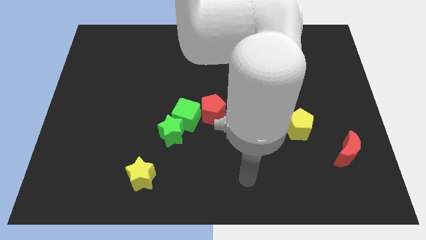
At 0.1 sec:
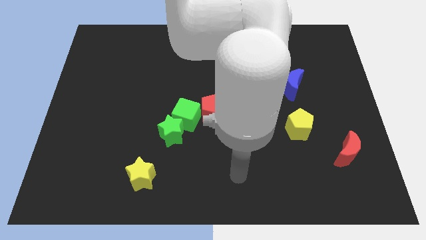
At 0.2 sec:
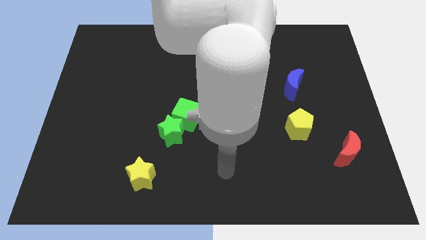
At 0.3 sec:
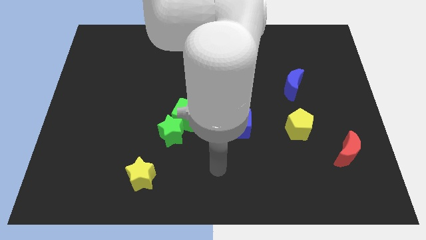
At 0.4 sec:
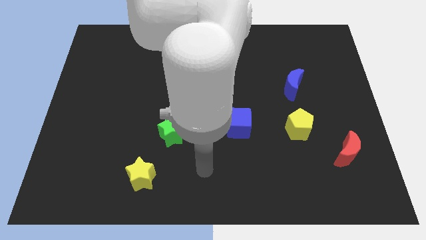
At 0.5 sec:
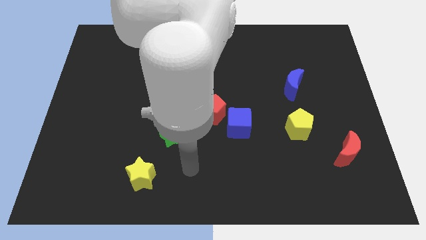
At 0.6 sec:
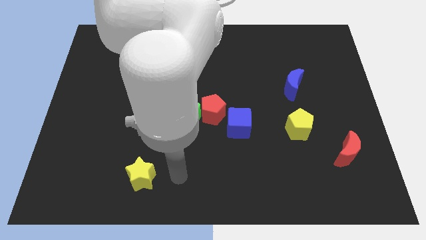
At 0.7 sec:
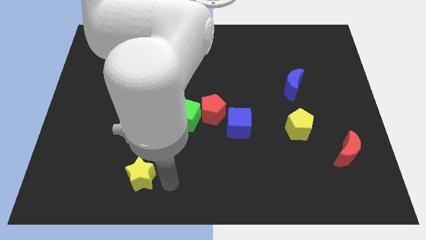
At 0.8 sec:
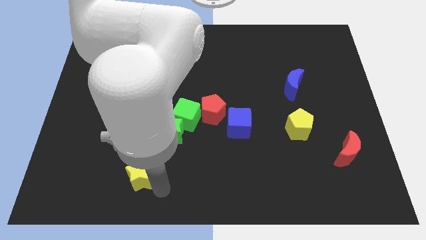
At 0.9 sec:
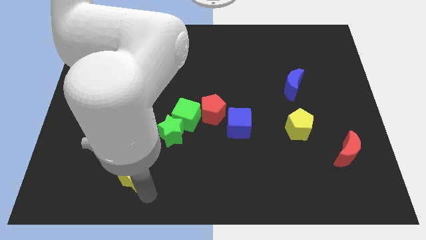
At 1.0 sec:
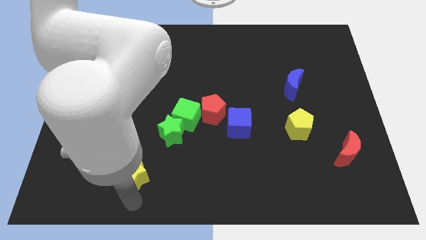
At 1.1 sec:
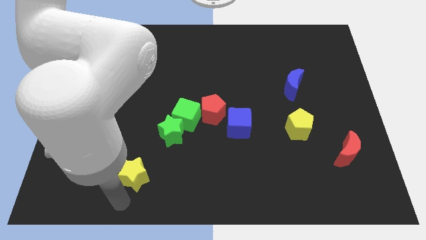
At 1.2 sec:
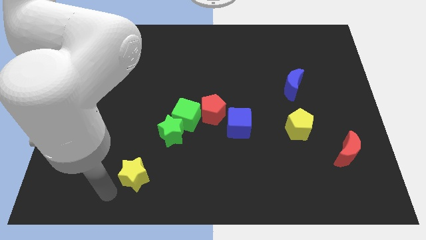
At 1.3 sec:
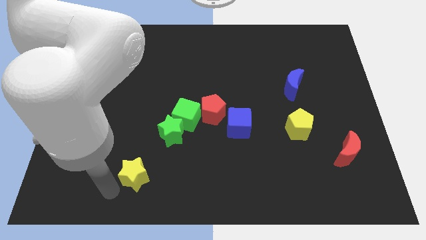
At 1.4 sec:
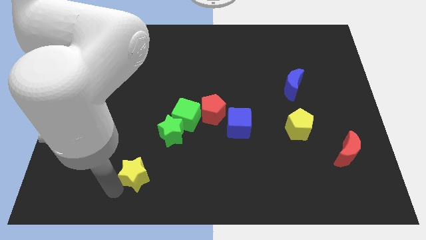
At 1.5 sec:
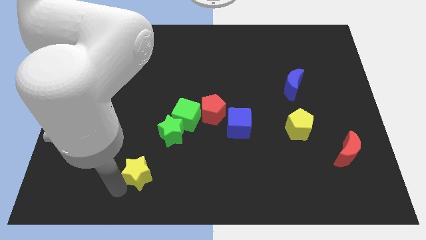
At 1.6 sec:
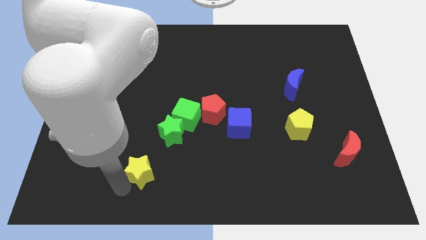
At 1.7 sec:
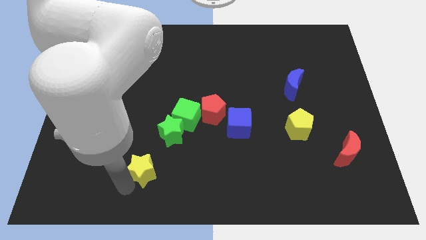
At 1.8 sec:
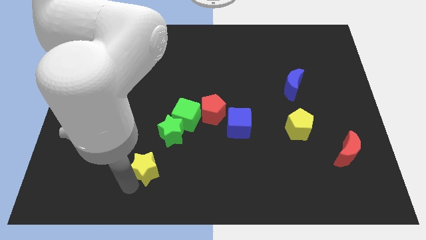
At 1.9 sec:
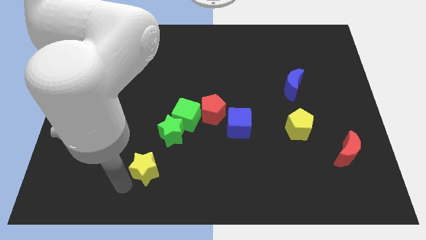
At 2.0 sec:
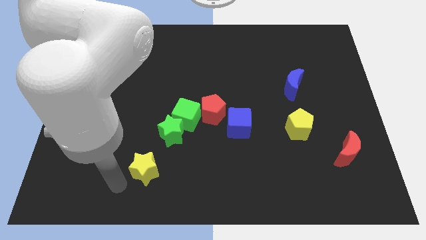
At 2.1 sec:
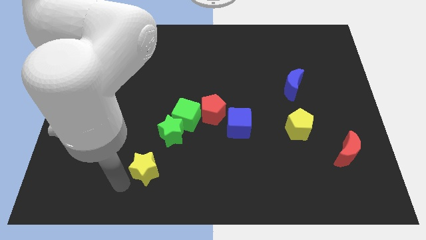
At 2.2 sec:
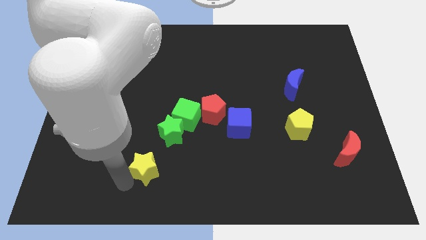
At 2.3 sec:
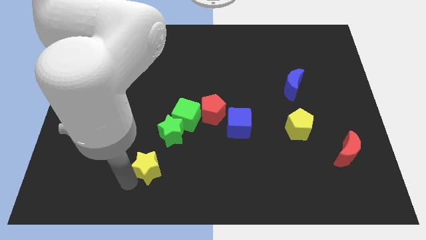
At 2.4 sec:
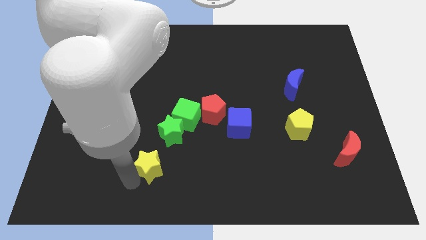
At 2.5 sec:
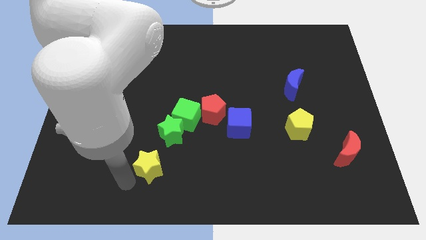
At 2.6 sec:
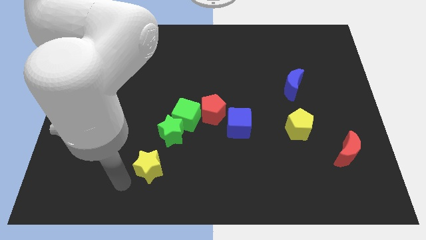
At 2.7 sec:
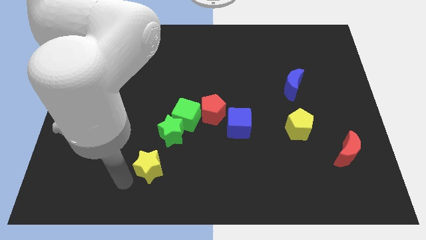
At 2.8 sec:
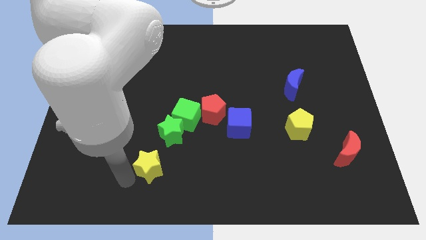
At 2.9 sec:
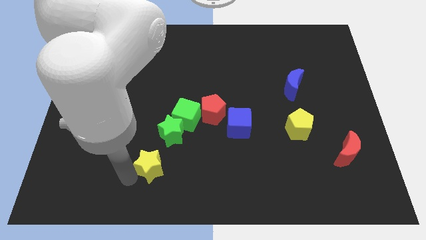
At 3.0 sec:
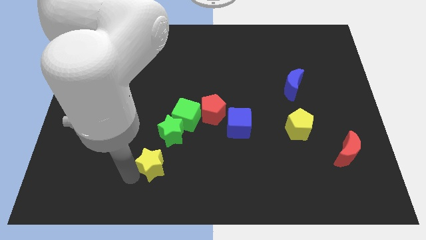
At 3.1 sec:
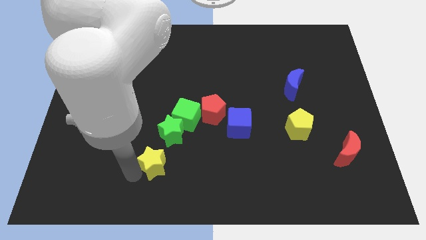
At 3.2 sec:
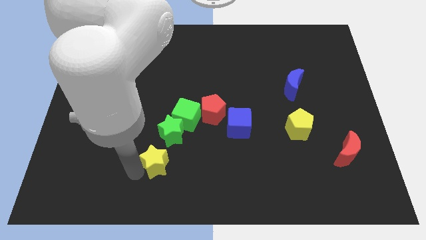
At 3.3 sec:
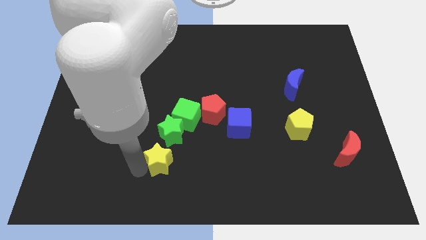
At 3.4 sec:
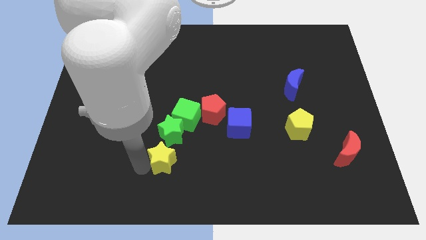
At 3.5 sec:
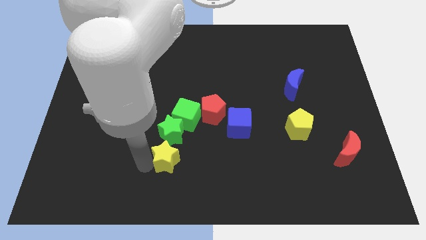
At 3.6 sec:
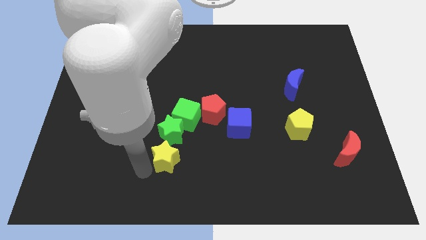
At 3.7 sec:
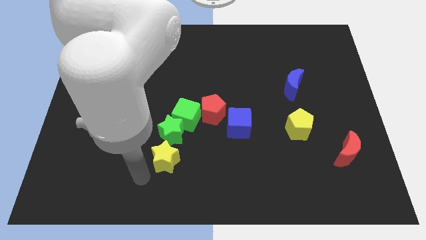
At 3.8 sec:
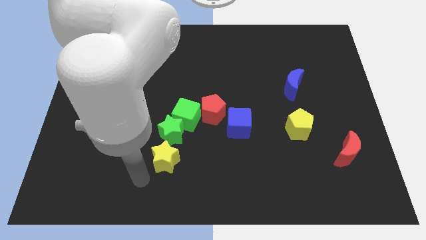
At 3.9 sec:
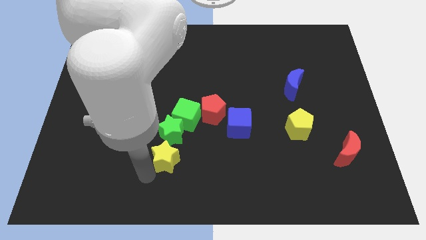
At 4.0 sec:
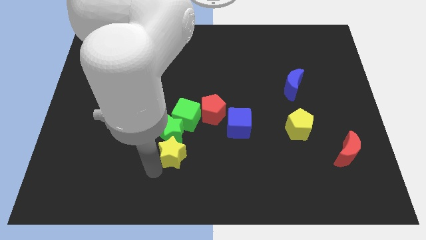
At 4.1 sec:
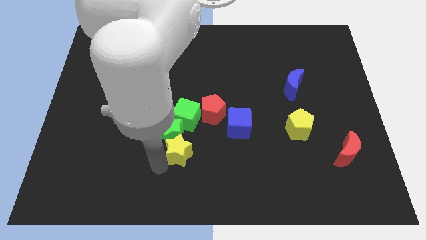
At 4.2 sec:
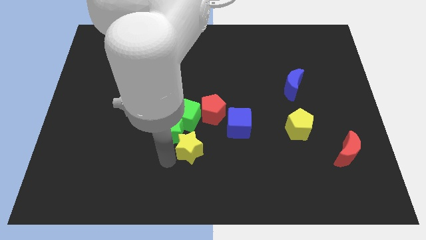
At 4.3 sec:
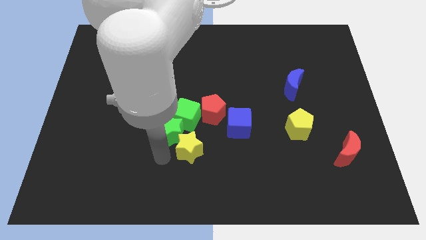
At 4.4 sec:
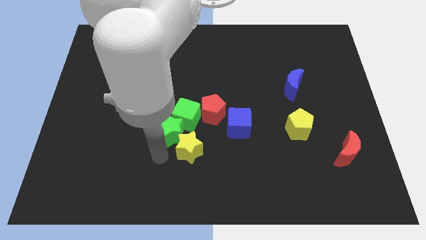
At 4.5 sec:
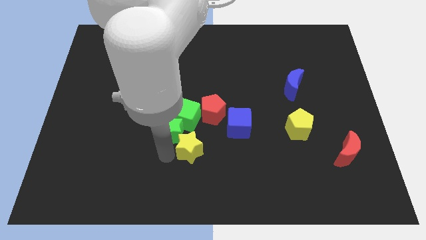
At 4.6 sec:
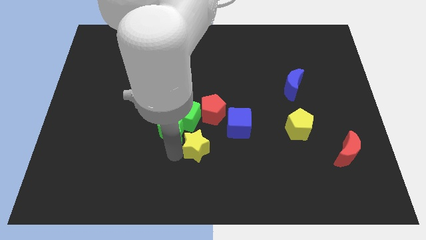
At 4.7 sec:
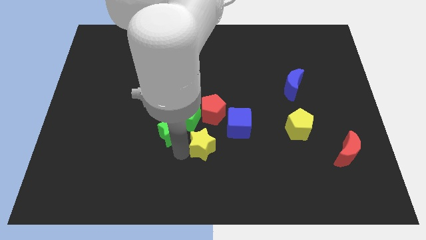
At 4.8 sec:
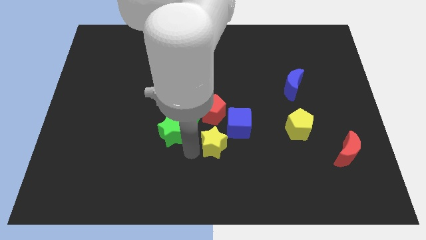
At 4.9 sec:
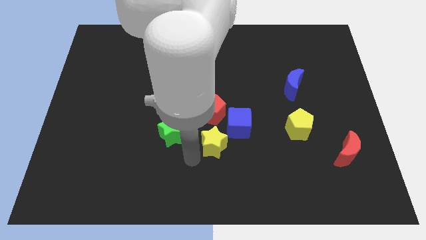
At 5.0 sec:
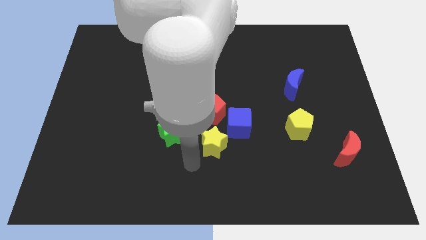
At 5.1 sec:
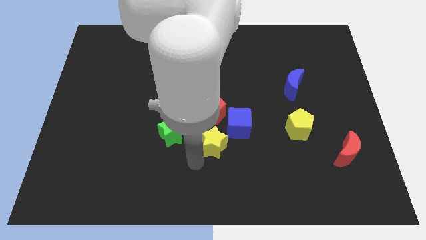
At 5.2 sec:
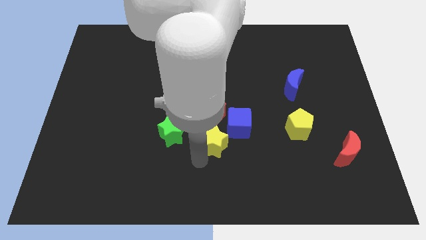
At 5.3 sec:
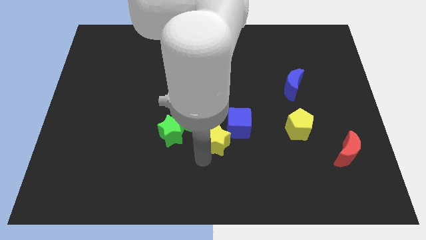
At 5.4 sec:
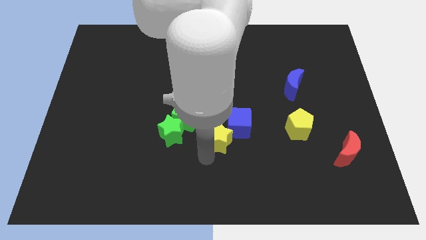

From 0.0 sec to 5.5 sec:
slide the yellow star next to the blue cube

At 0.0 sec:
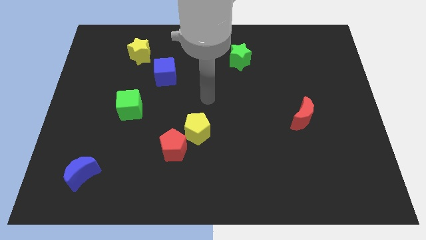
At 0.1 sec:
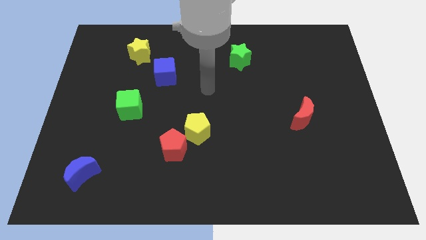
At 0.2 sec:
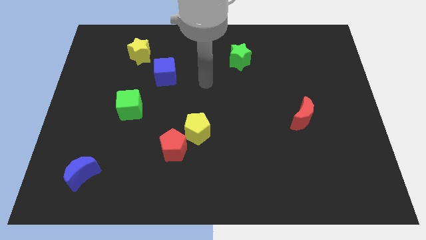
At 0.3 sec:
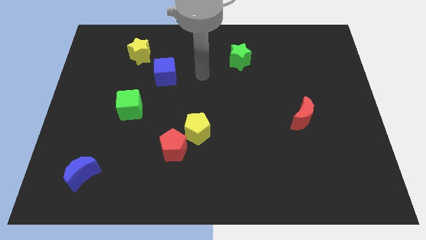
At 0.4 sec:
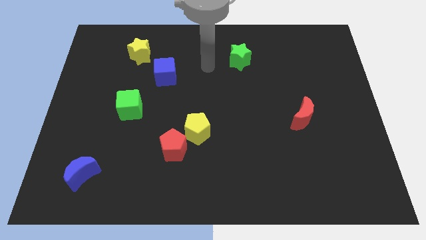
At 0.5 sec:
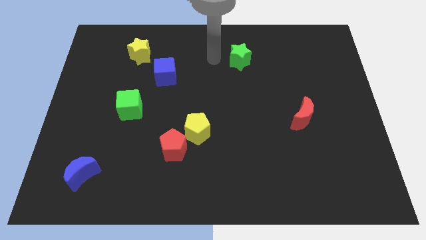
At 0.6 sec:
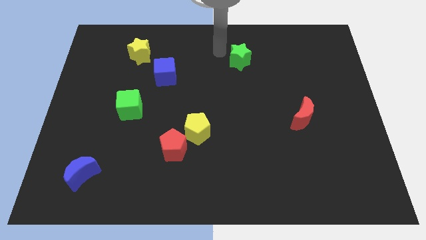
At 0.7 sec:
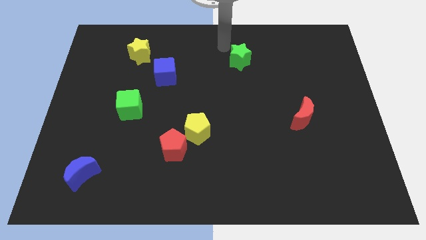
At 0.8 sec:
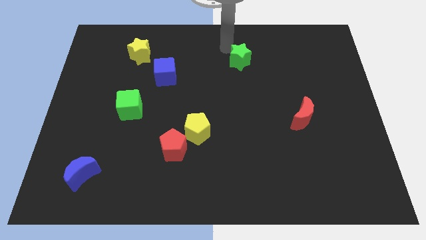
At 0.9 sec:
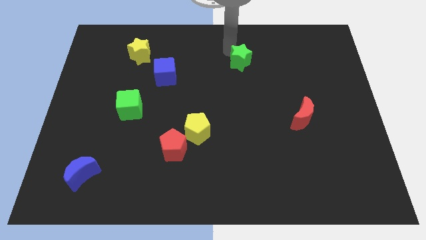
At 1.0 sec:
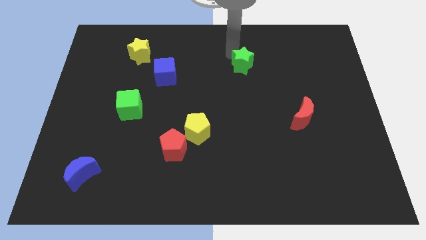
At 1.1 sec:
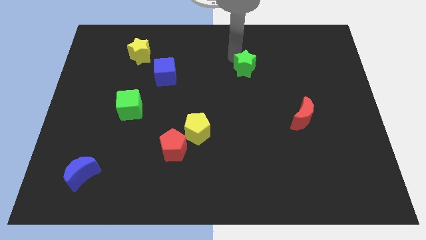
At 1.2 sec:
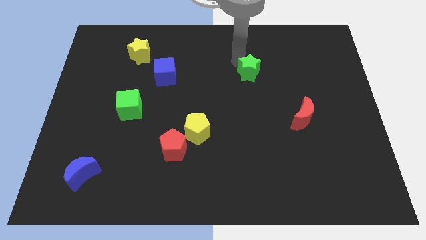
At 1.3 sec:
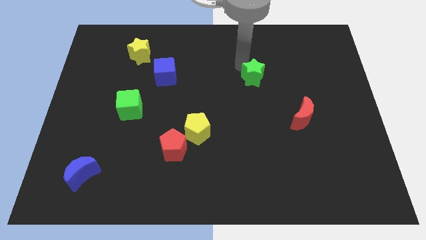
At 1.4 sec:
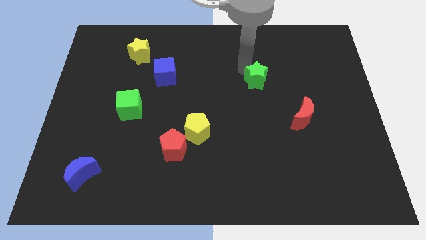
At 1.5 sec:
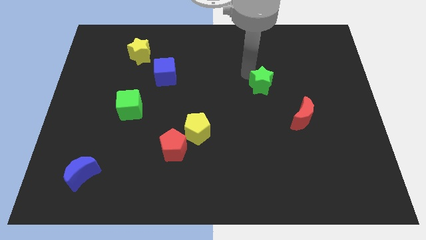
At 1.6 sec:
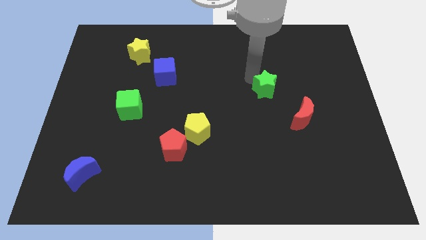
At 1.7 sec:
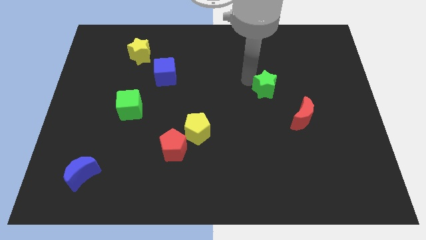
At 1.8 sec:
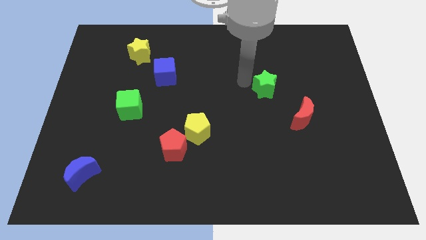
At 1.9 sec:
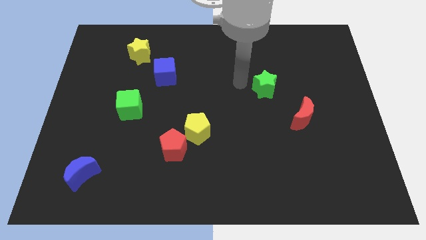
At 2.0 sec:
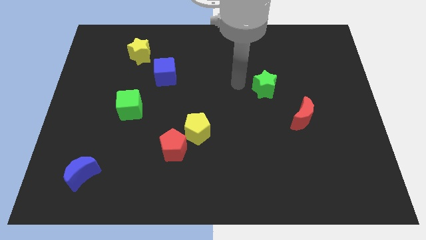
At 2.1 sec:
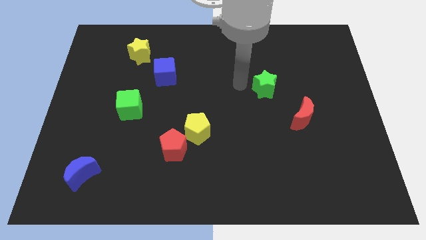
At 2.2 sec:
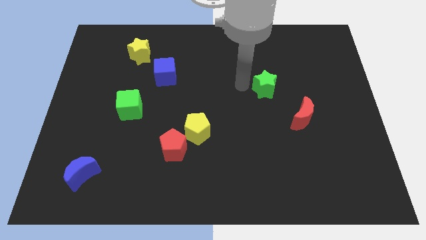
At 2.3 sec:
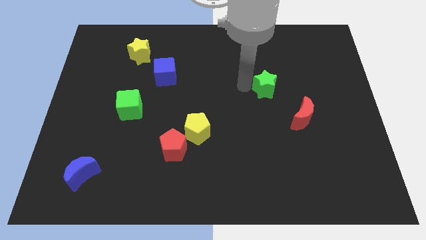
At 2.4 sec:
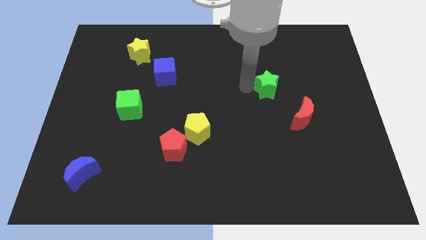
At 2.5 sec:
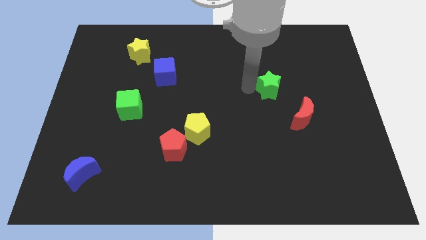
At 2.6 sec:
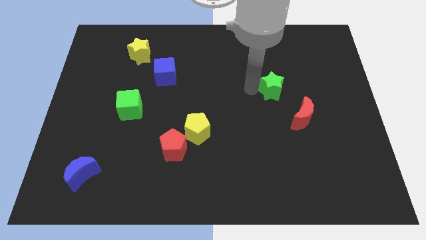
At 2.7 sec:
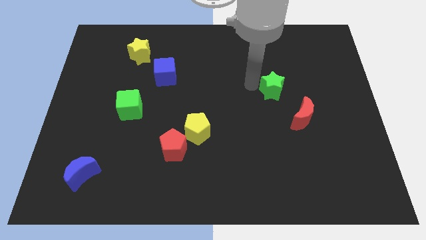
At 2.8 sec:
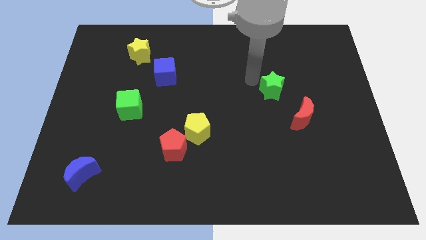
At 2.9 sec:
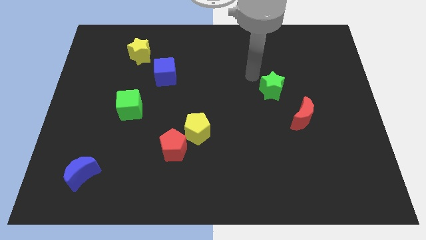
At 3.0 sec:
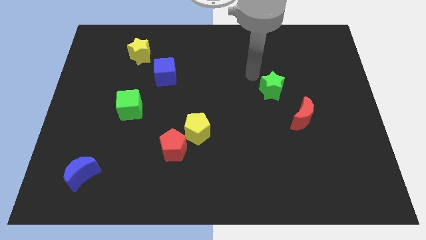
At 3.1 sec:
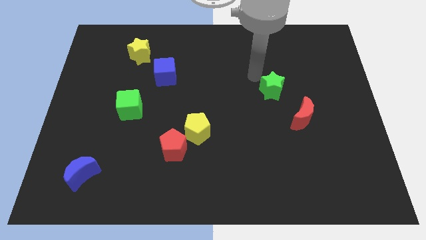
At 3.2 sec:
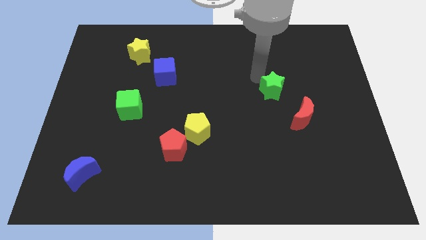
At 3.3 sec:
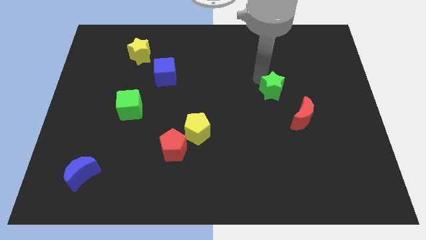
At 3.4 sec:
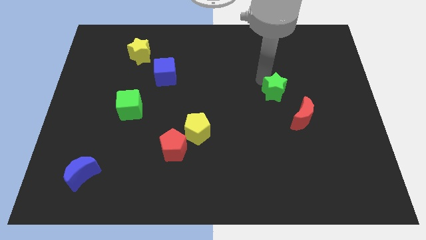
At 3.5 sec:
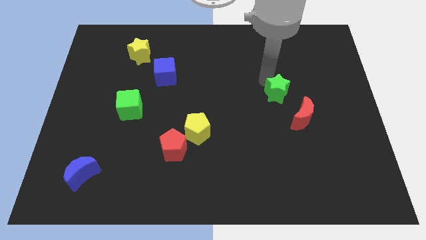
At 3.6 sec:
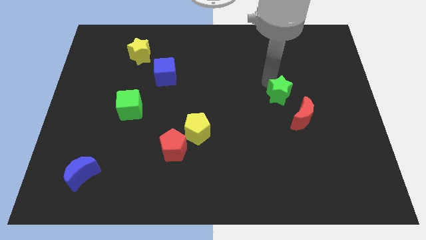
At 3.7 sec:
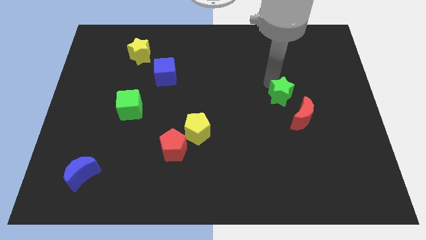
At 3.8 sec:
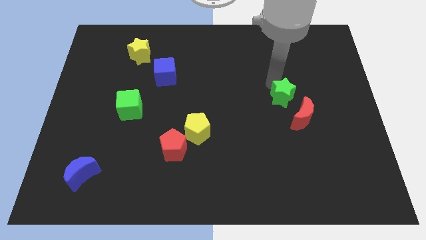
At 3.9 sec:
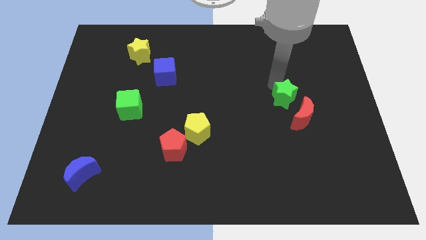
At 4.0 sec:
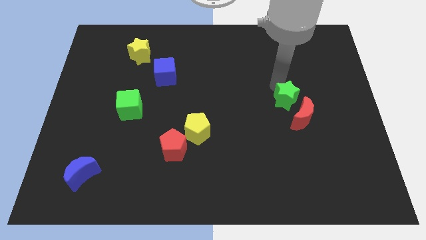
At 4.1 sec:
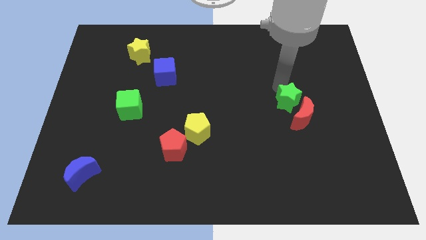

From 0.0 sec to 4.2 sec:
put the green star to the red moon
